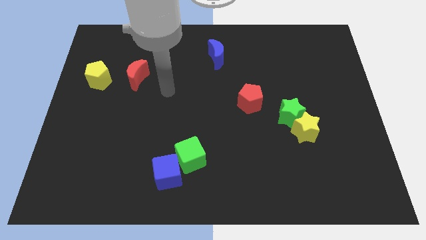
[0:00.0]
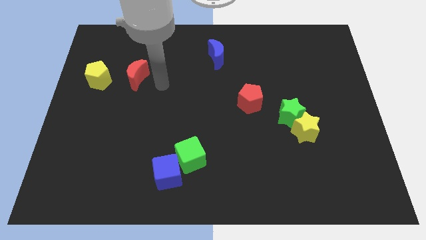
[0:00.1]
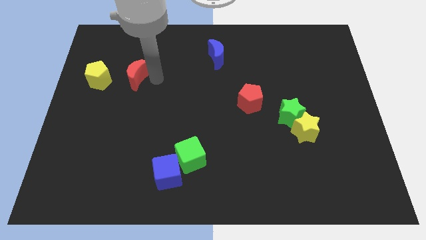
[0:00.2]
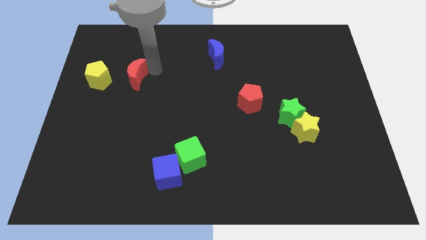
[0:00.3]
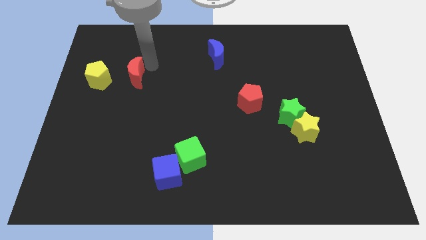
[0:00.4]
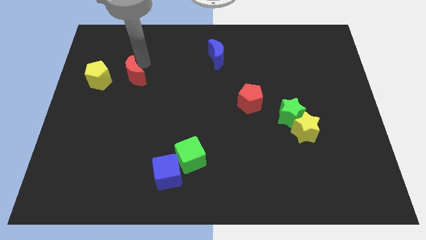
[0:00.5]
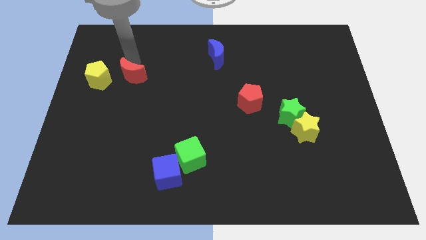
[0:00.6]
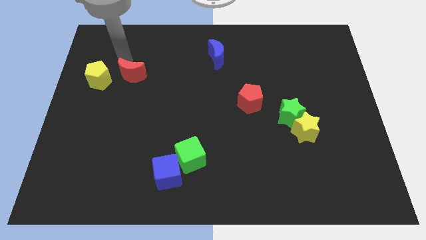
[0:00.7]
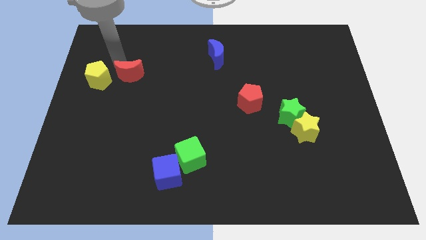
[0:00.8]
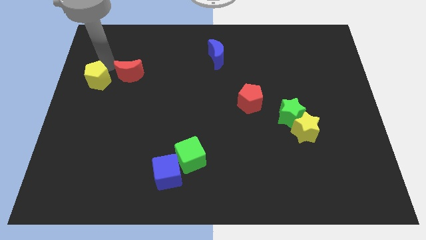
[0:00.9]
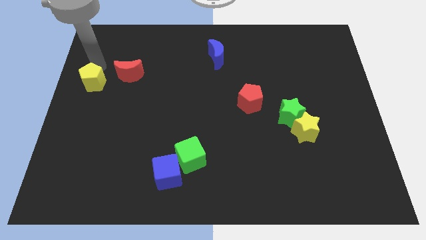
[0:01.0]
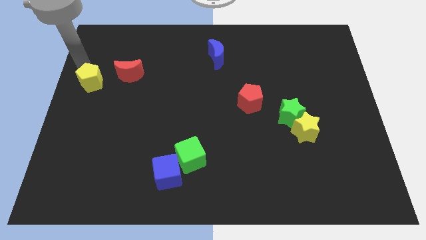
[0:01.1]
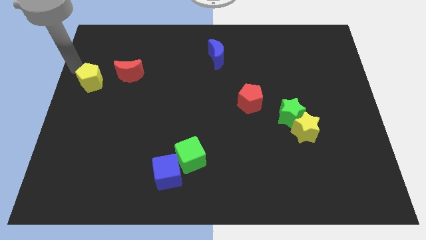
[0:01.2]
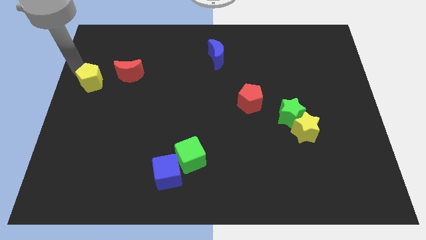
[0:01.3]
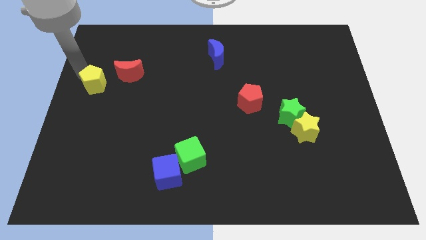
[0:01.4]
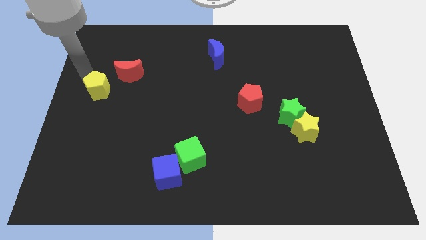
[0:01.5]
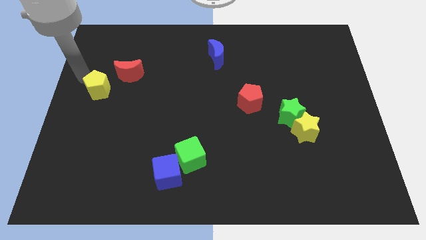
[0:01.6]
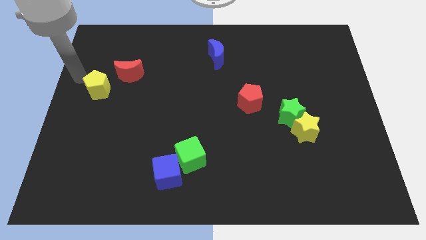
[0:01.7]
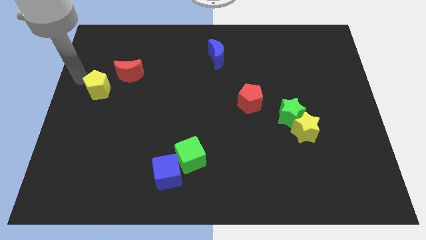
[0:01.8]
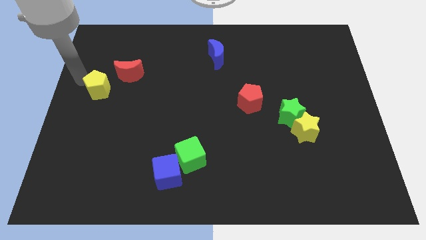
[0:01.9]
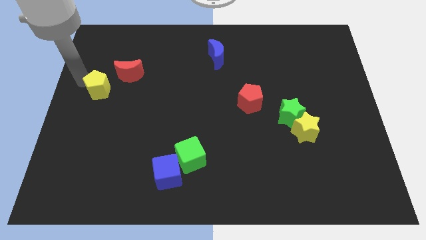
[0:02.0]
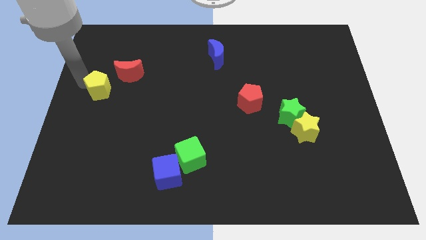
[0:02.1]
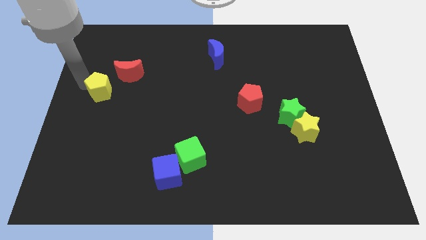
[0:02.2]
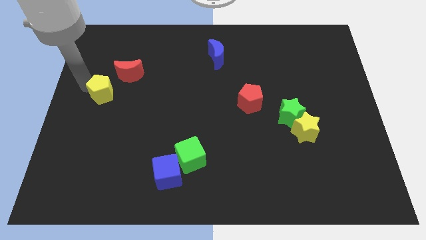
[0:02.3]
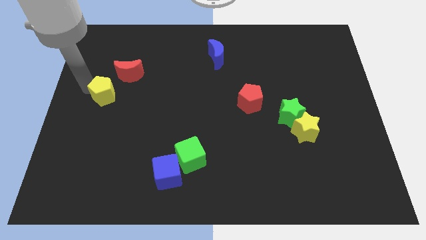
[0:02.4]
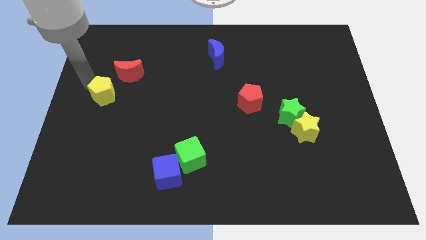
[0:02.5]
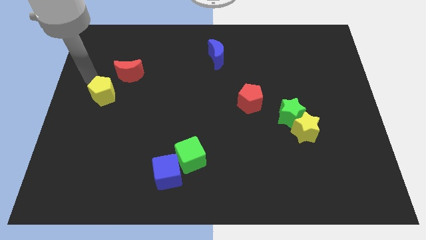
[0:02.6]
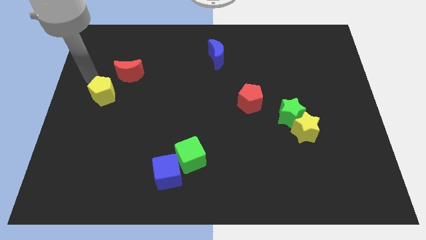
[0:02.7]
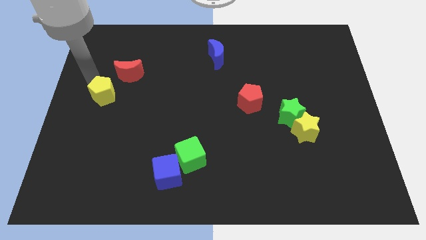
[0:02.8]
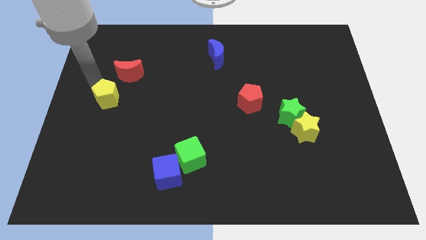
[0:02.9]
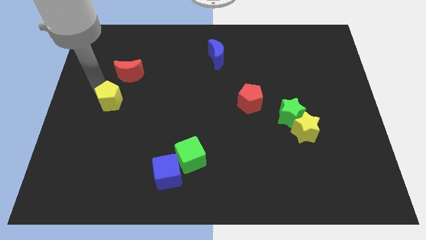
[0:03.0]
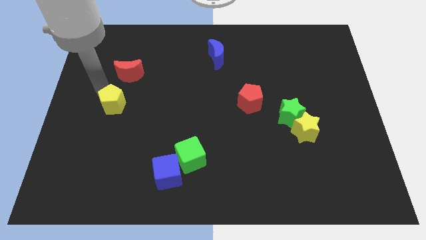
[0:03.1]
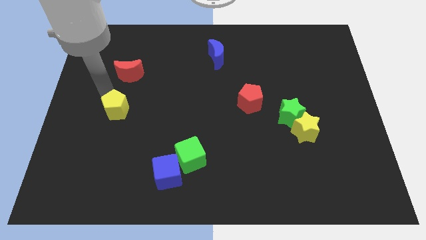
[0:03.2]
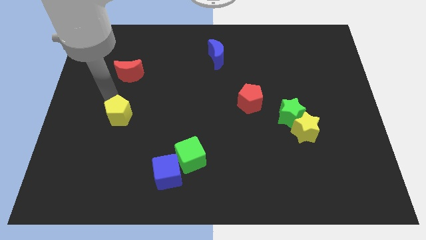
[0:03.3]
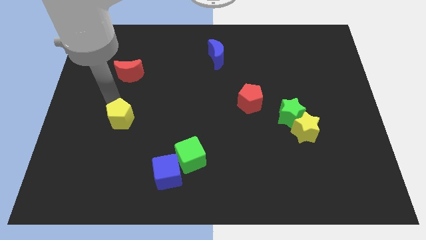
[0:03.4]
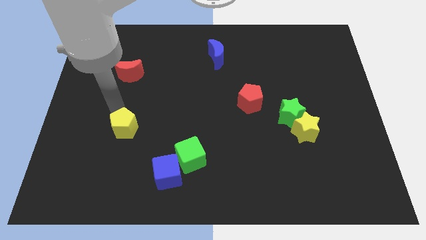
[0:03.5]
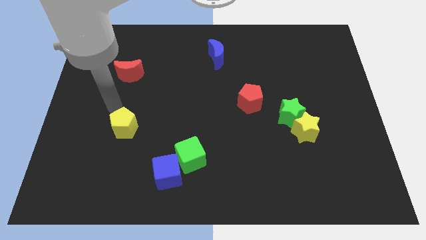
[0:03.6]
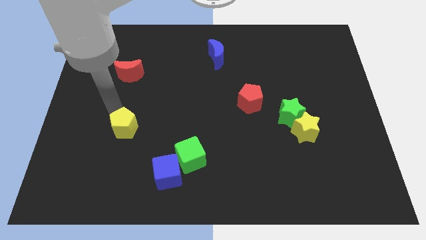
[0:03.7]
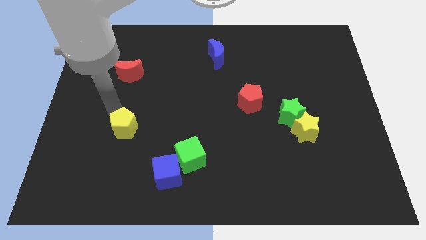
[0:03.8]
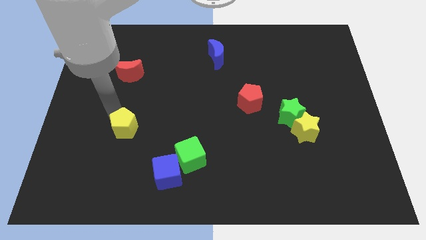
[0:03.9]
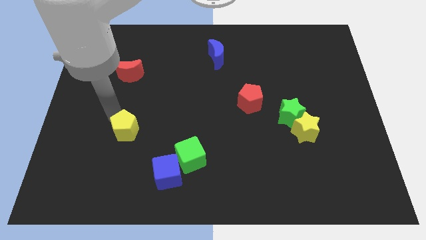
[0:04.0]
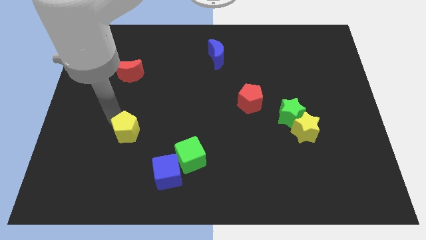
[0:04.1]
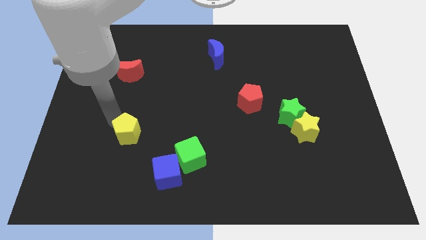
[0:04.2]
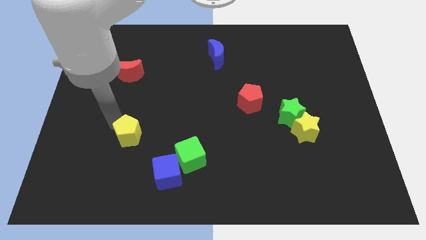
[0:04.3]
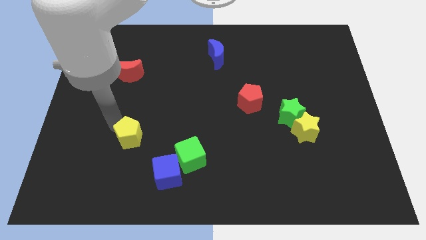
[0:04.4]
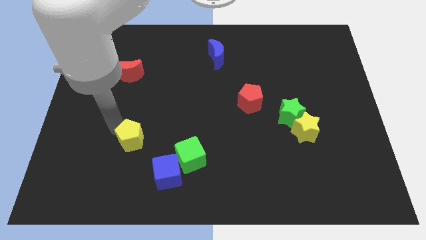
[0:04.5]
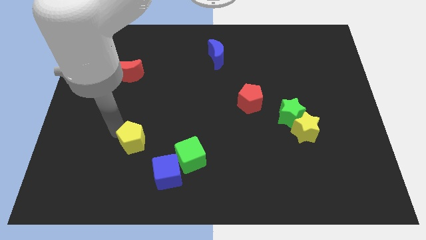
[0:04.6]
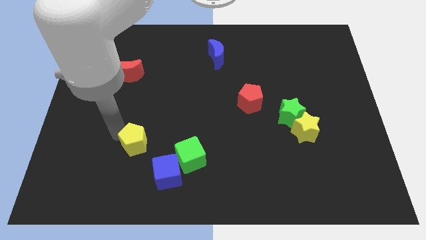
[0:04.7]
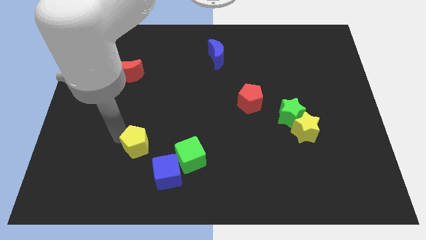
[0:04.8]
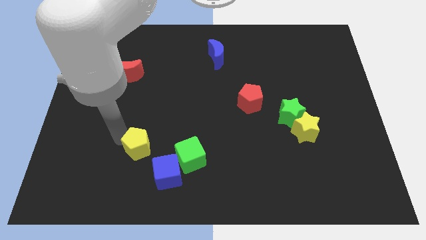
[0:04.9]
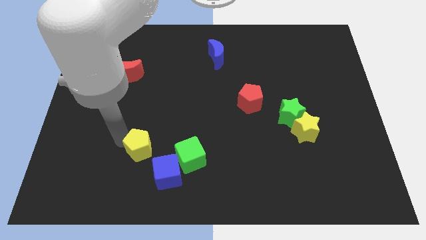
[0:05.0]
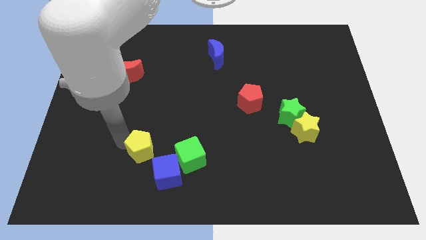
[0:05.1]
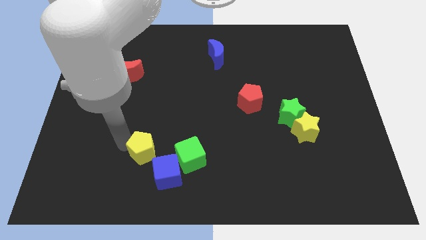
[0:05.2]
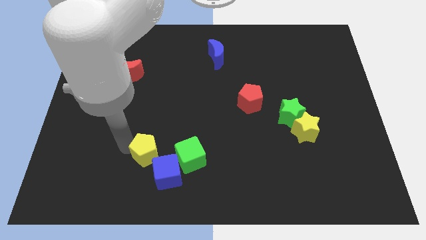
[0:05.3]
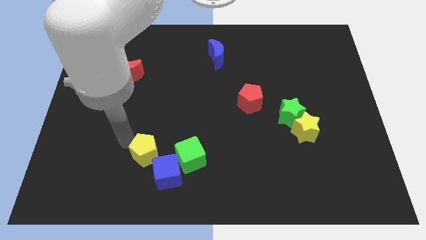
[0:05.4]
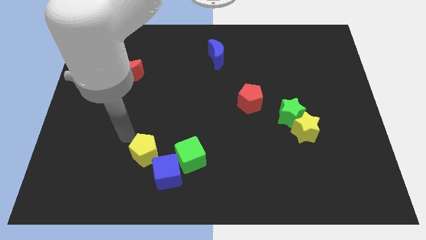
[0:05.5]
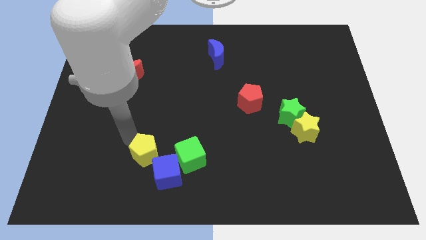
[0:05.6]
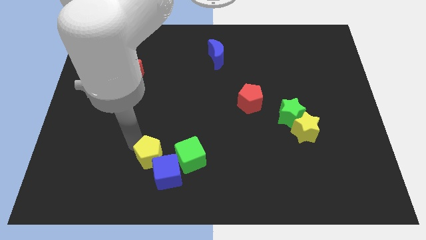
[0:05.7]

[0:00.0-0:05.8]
put the yellow pentagon towards the blue cube

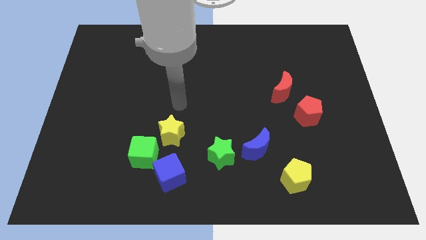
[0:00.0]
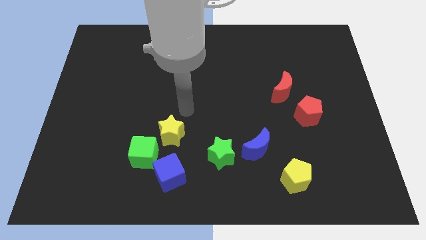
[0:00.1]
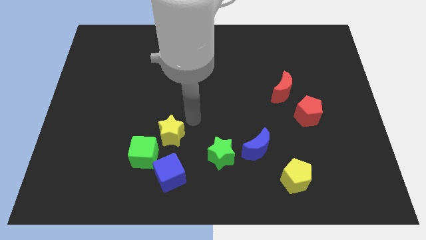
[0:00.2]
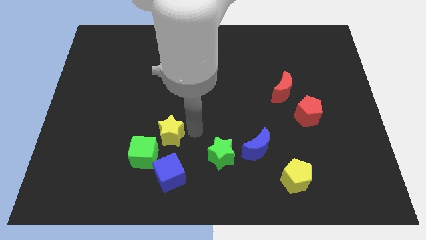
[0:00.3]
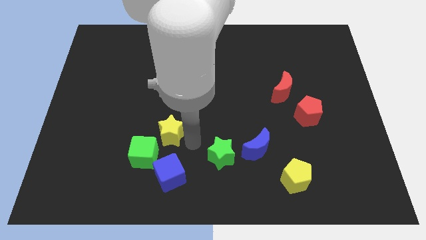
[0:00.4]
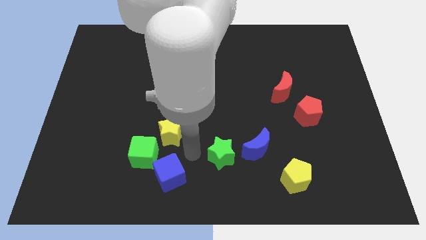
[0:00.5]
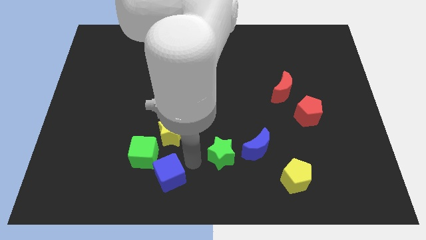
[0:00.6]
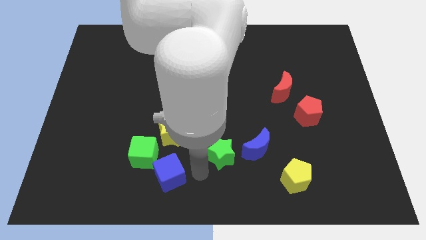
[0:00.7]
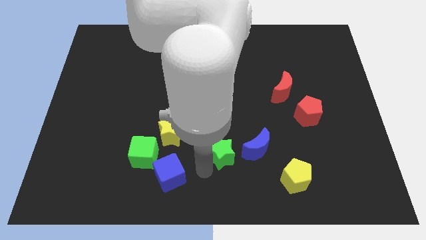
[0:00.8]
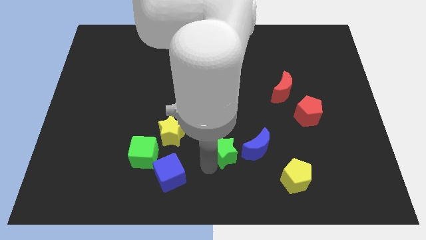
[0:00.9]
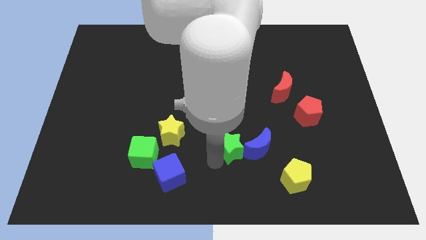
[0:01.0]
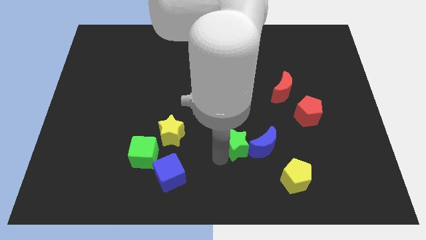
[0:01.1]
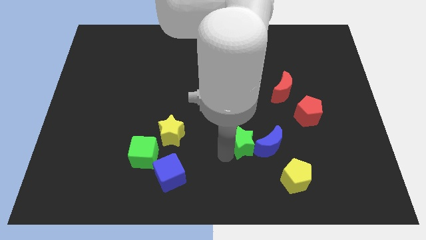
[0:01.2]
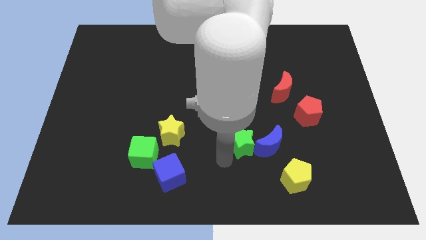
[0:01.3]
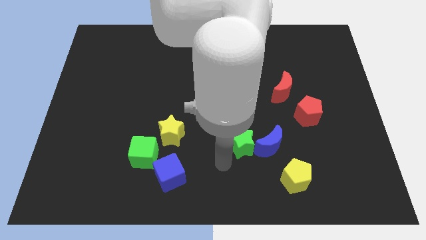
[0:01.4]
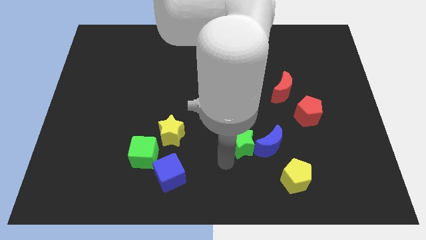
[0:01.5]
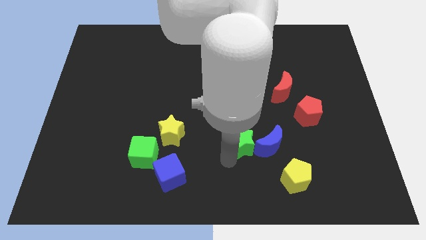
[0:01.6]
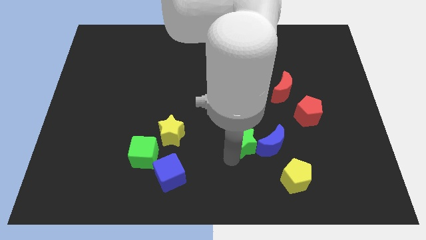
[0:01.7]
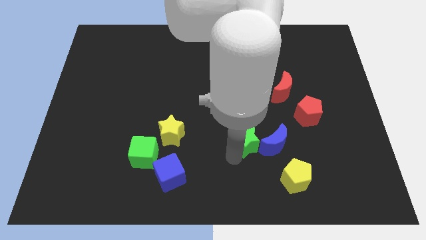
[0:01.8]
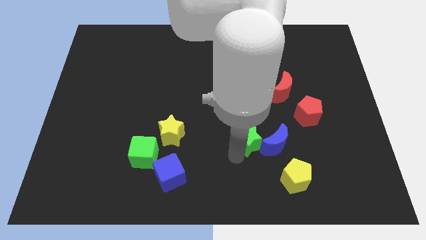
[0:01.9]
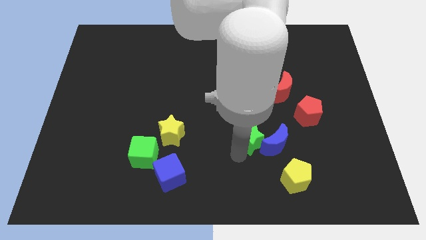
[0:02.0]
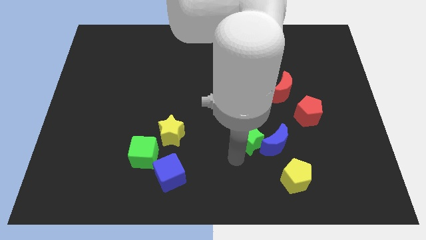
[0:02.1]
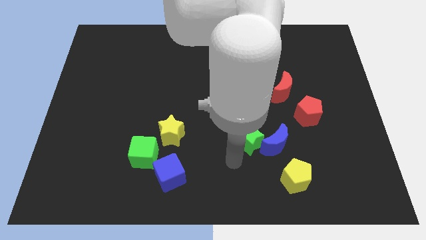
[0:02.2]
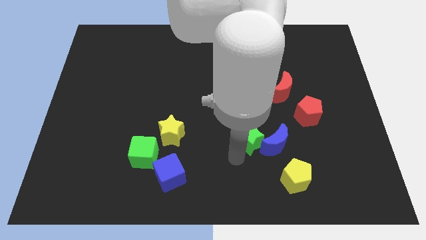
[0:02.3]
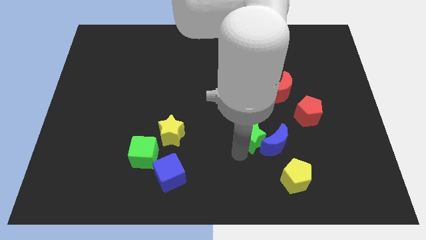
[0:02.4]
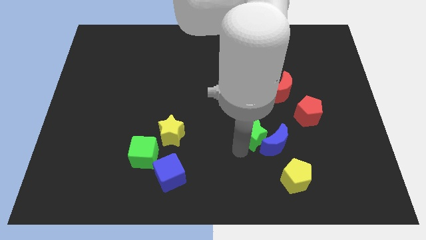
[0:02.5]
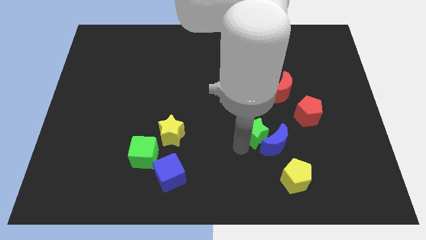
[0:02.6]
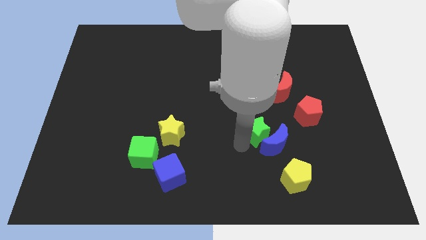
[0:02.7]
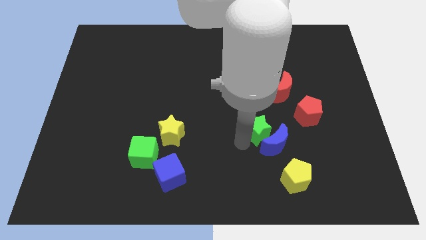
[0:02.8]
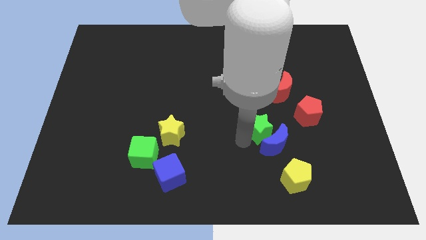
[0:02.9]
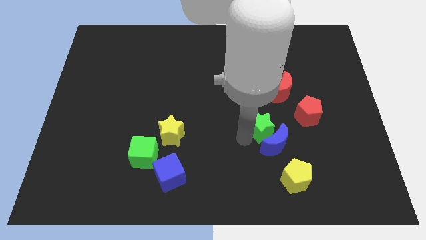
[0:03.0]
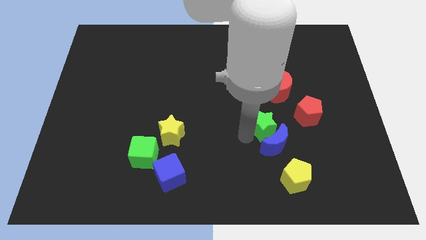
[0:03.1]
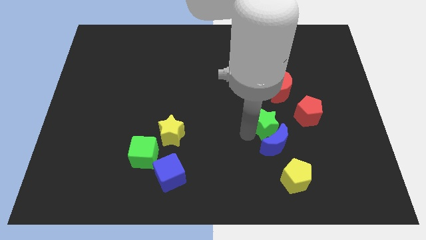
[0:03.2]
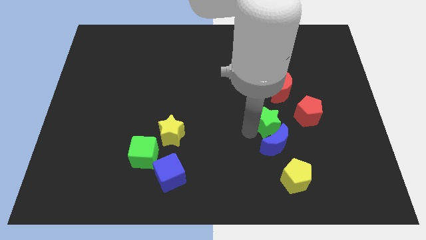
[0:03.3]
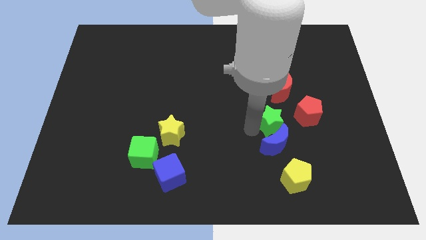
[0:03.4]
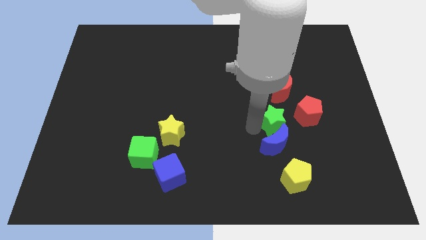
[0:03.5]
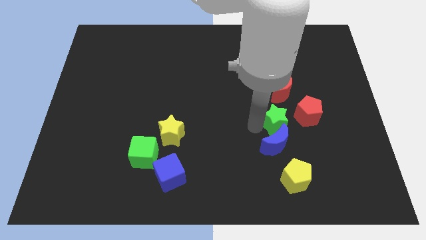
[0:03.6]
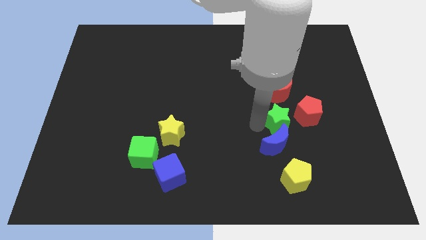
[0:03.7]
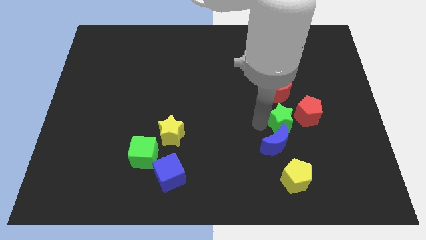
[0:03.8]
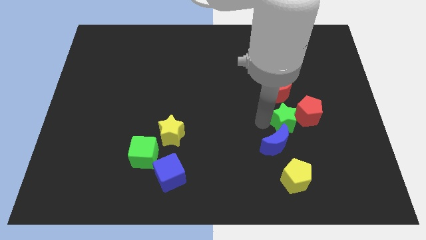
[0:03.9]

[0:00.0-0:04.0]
push the green star close to the red pentagon
